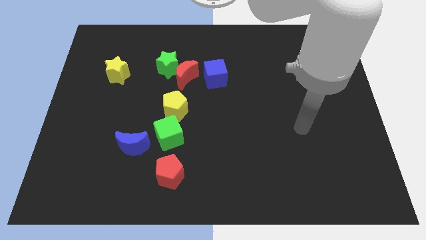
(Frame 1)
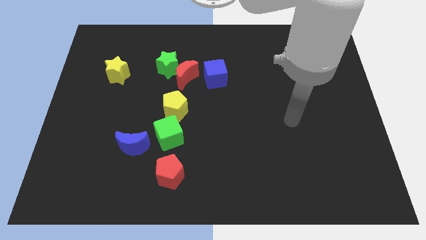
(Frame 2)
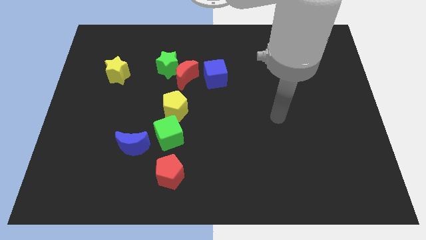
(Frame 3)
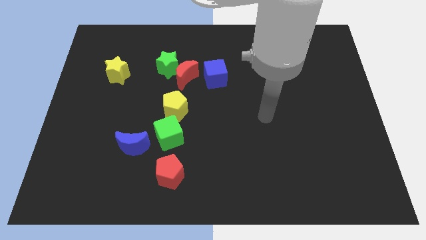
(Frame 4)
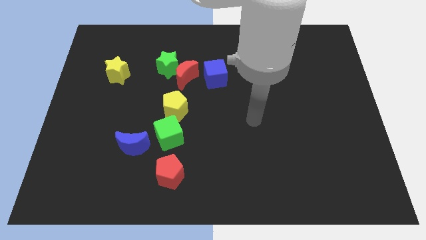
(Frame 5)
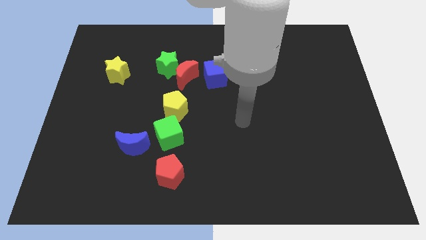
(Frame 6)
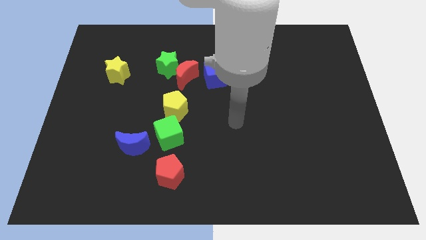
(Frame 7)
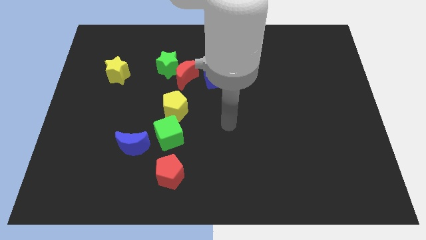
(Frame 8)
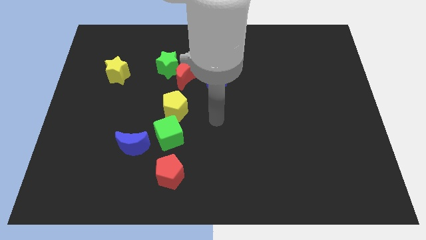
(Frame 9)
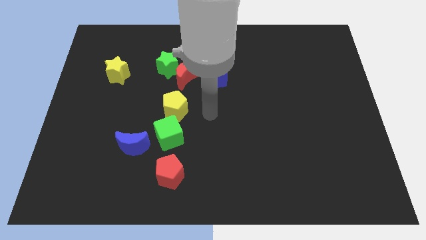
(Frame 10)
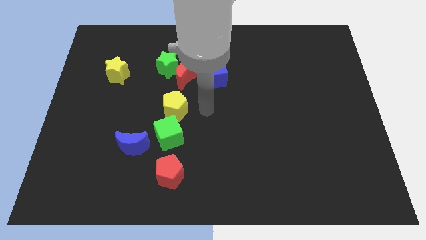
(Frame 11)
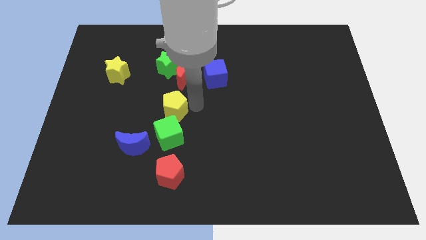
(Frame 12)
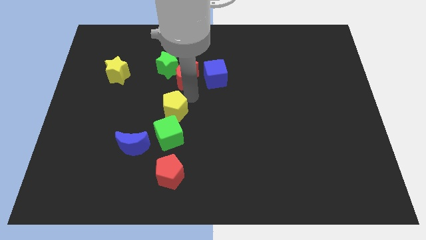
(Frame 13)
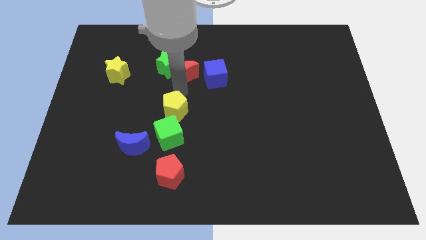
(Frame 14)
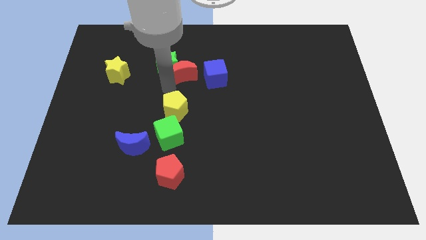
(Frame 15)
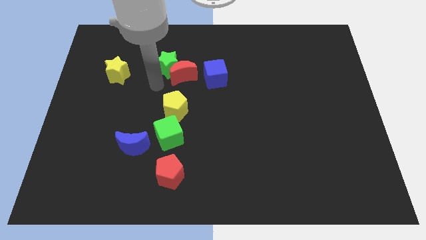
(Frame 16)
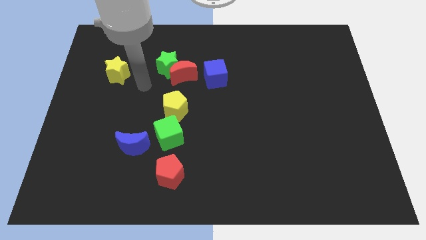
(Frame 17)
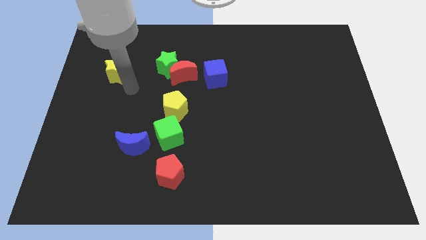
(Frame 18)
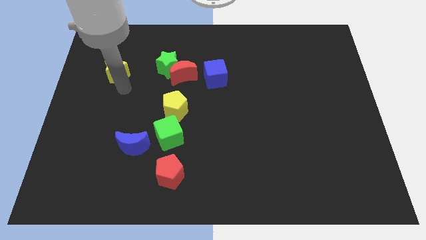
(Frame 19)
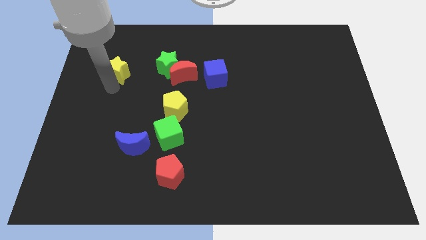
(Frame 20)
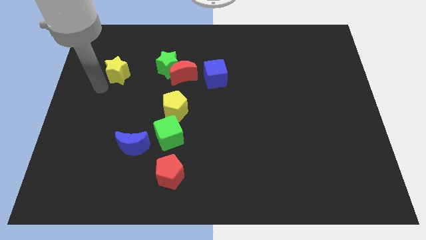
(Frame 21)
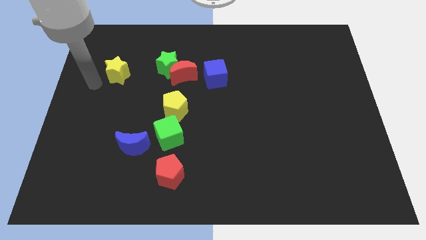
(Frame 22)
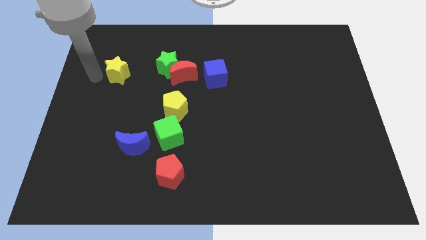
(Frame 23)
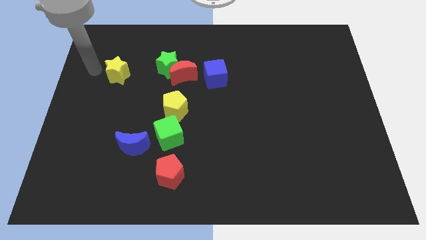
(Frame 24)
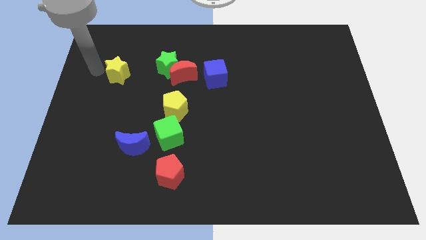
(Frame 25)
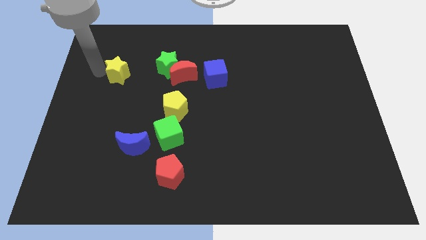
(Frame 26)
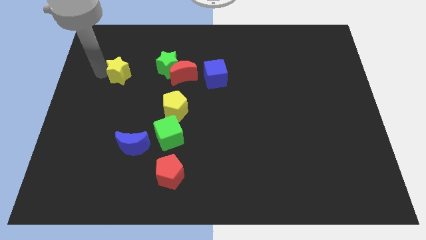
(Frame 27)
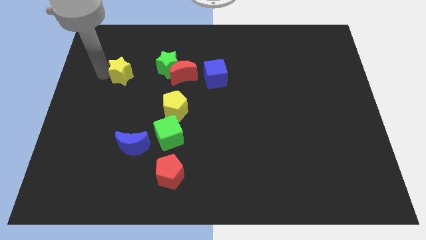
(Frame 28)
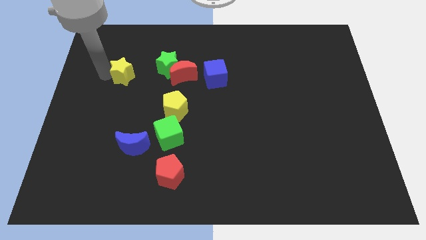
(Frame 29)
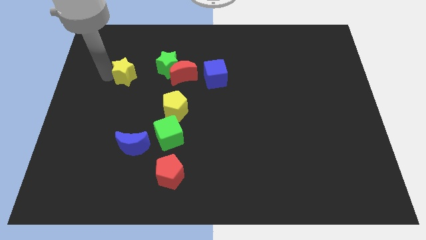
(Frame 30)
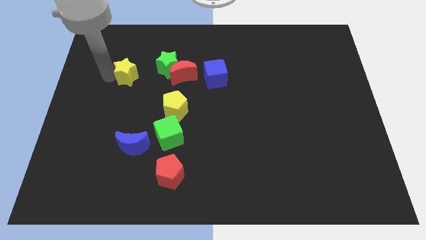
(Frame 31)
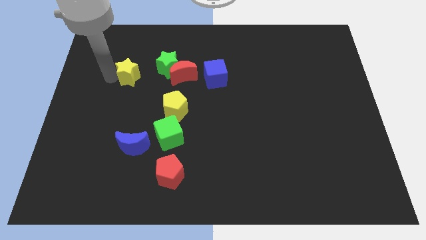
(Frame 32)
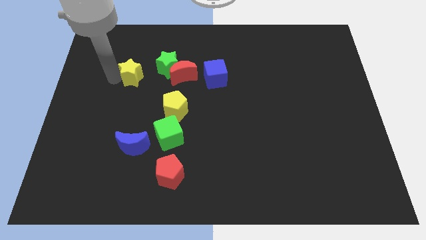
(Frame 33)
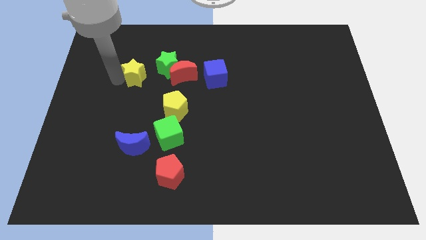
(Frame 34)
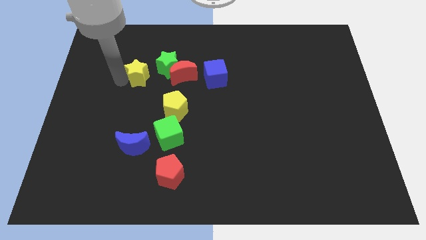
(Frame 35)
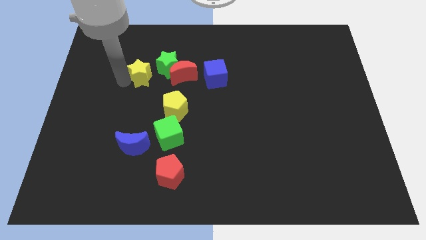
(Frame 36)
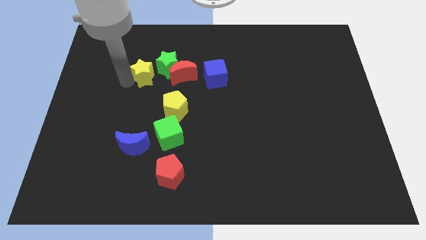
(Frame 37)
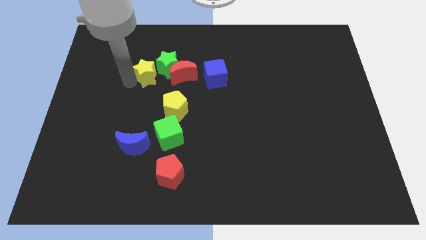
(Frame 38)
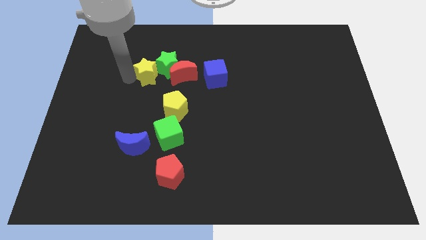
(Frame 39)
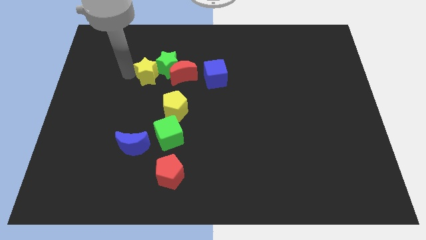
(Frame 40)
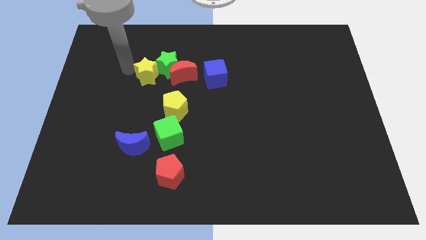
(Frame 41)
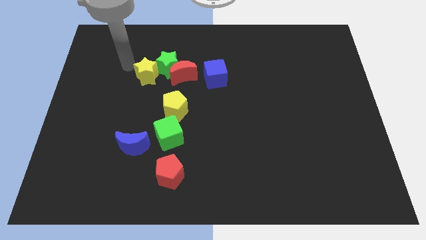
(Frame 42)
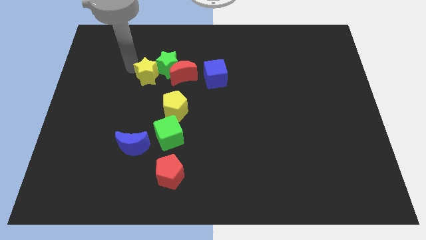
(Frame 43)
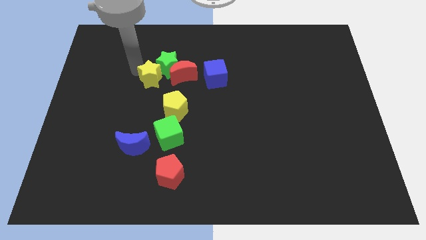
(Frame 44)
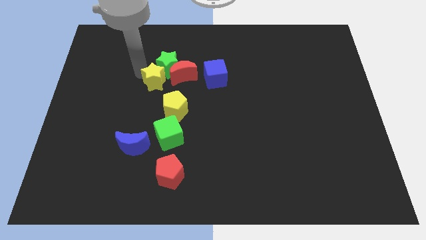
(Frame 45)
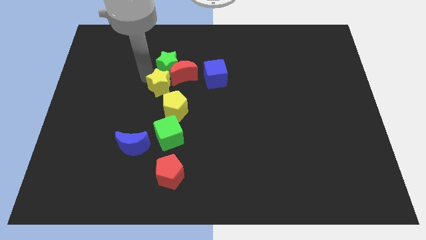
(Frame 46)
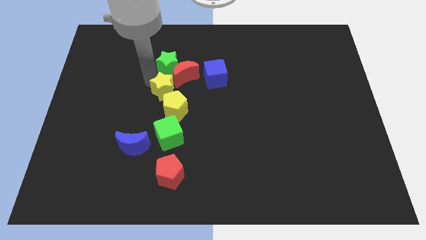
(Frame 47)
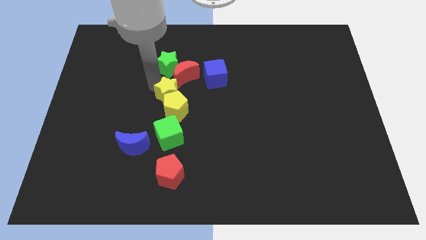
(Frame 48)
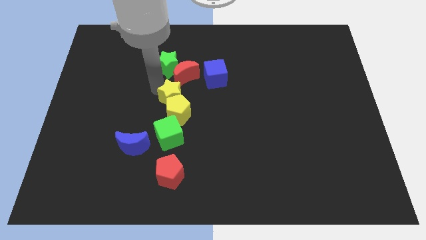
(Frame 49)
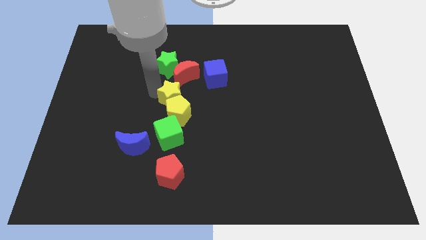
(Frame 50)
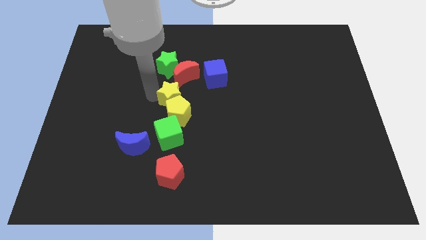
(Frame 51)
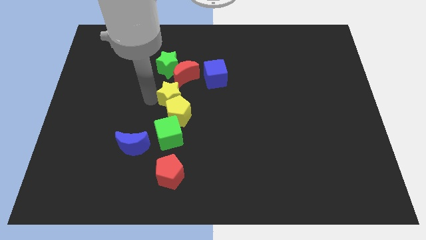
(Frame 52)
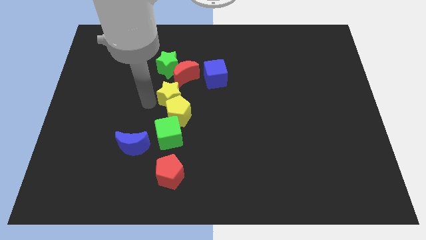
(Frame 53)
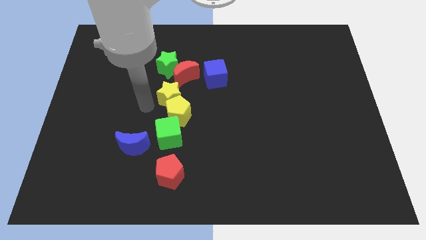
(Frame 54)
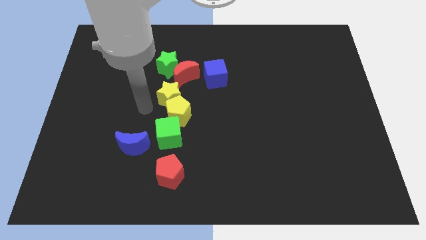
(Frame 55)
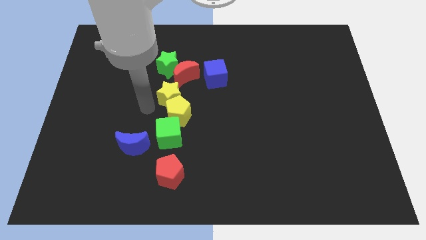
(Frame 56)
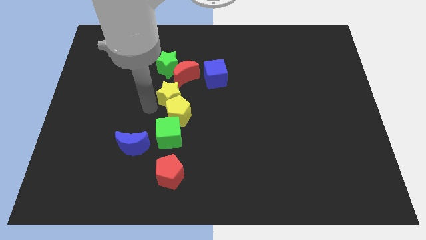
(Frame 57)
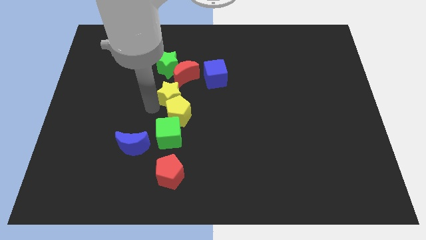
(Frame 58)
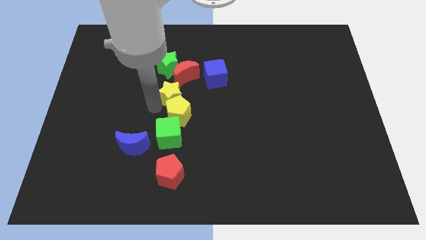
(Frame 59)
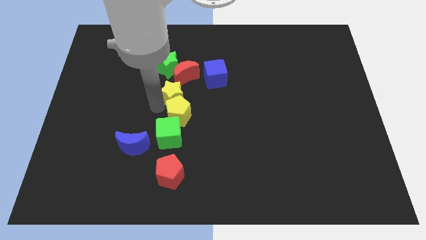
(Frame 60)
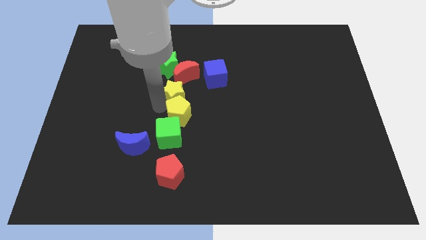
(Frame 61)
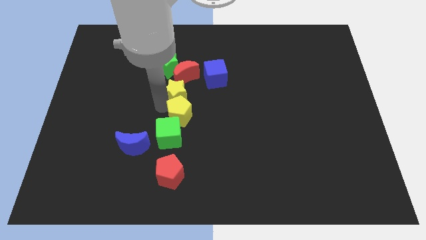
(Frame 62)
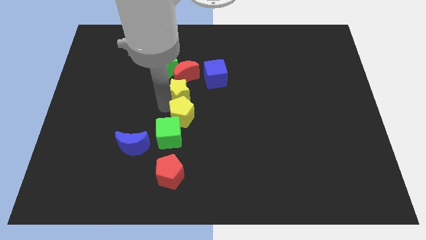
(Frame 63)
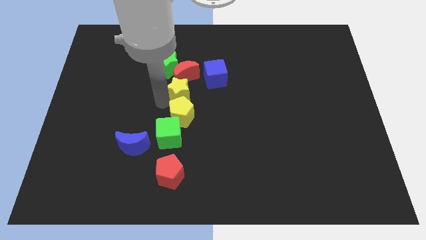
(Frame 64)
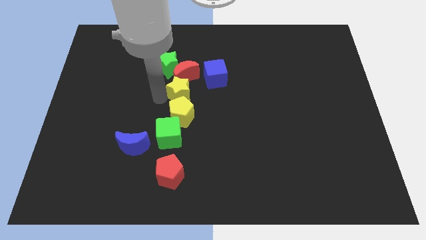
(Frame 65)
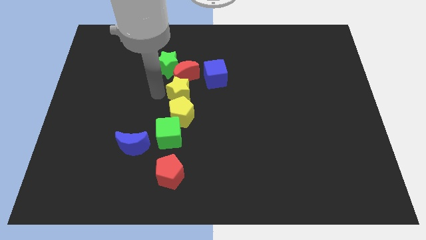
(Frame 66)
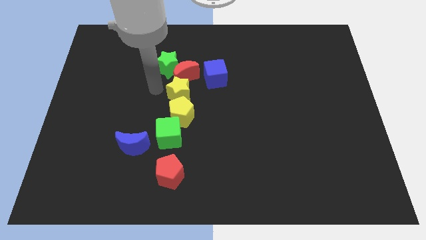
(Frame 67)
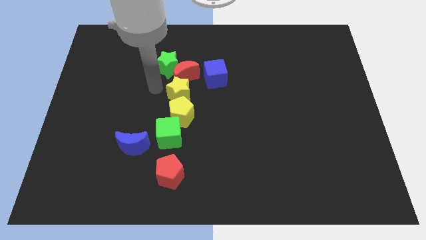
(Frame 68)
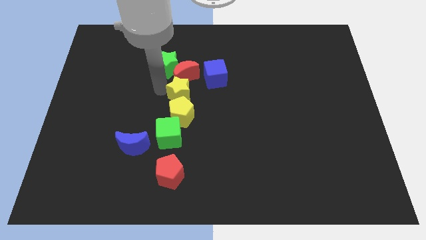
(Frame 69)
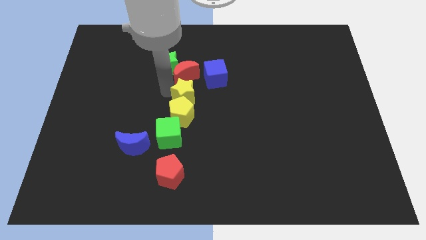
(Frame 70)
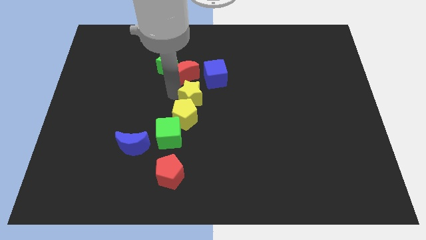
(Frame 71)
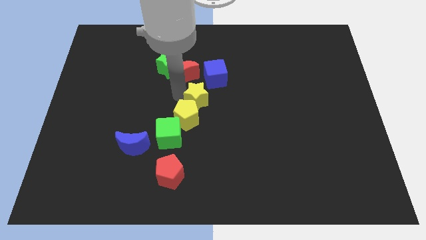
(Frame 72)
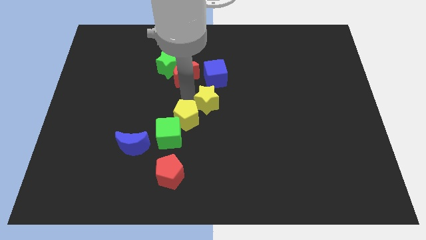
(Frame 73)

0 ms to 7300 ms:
push the yellow star to the right side of the yellow pentagon

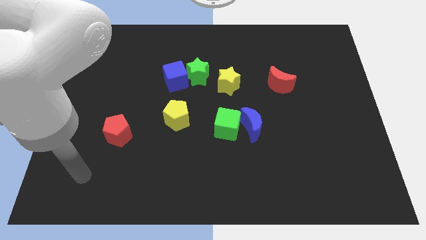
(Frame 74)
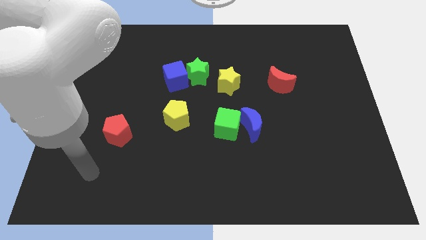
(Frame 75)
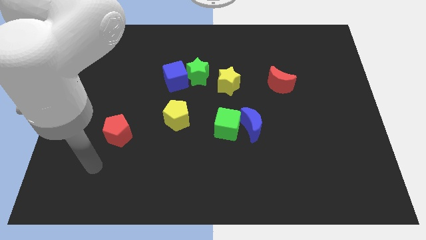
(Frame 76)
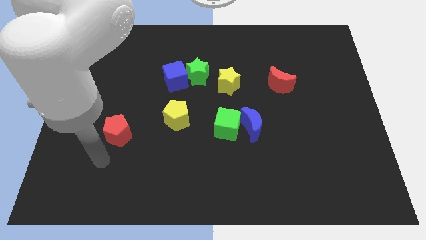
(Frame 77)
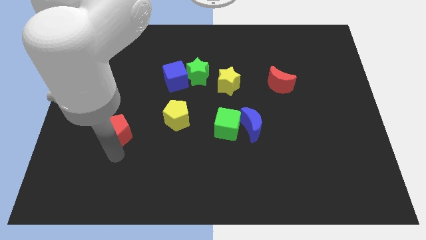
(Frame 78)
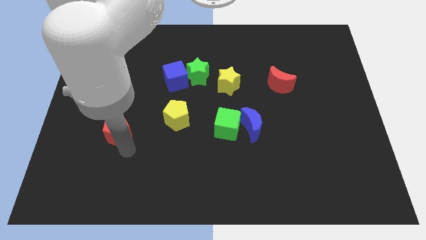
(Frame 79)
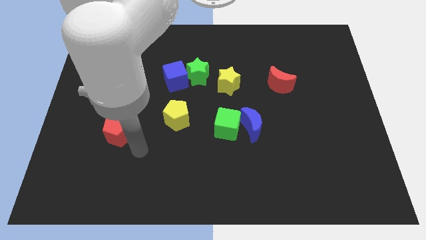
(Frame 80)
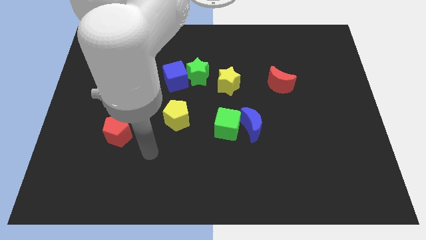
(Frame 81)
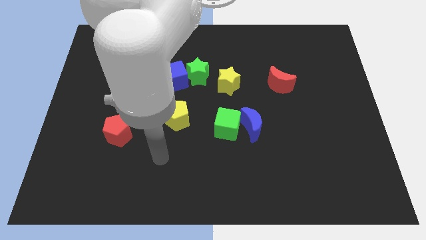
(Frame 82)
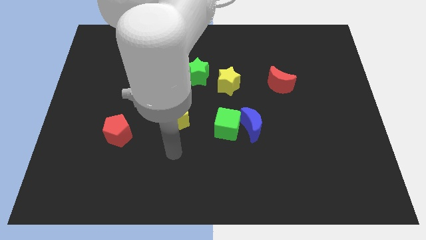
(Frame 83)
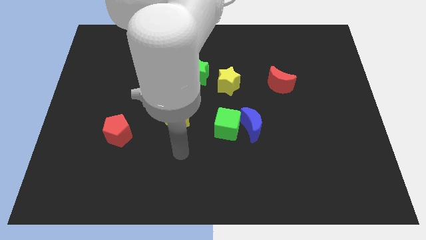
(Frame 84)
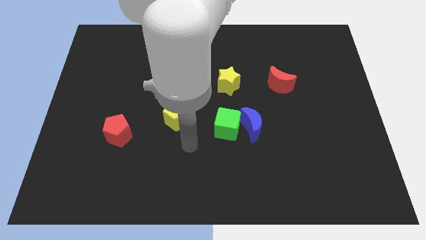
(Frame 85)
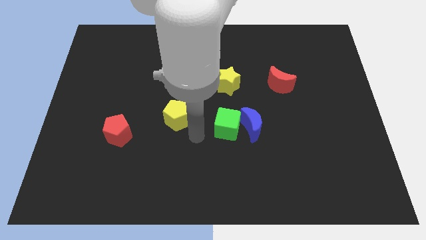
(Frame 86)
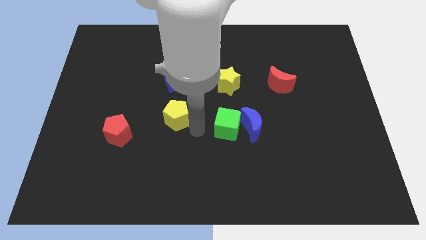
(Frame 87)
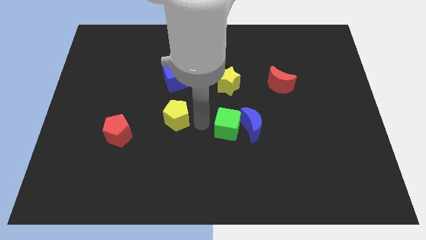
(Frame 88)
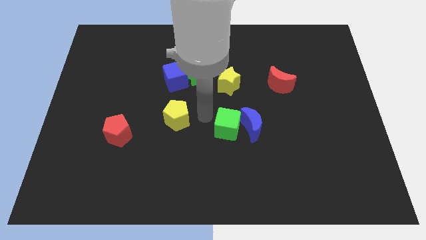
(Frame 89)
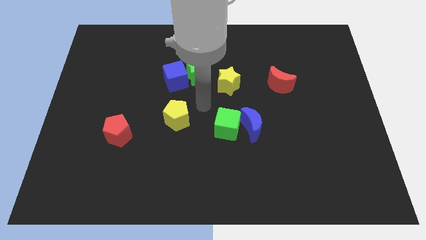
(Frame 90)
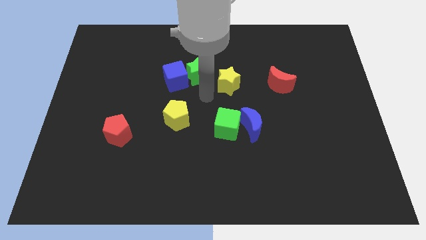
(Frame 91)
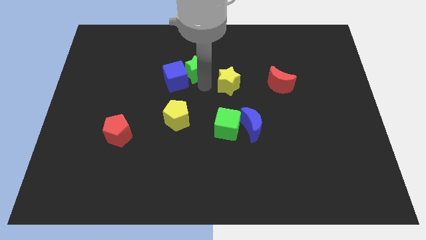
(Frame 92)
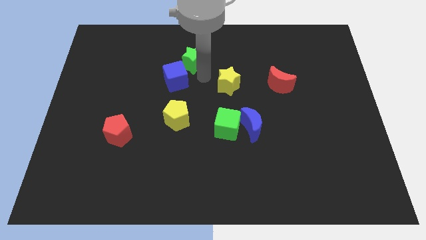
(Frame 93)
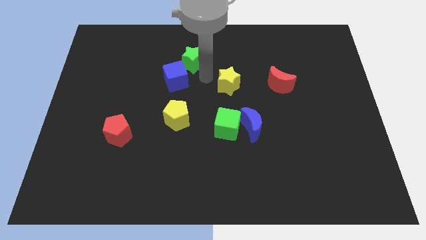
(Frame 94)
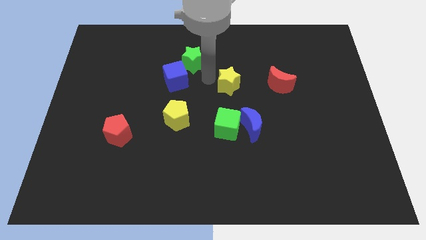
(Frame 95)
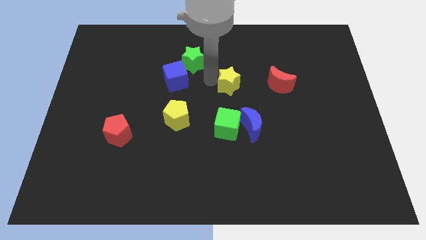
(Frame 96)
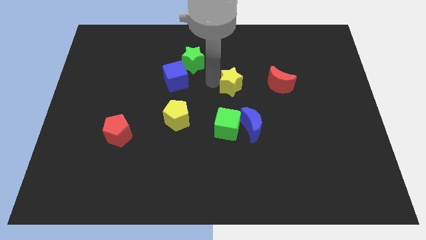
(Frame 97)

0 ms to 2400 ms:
slide the yellow star to the top of the blue moon
